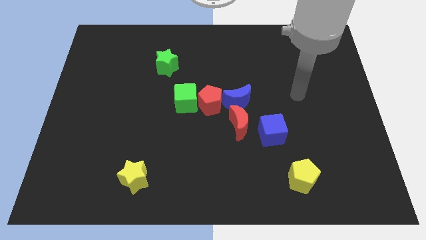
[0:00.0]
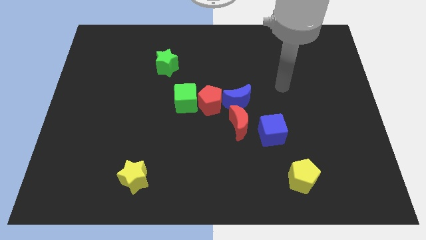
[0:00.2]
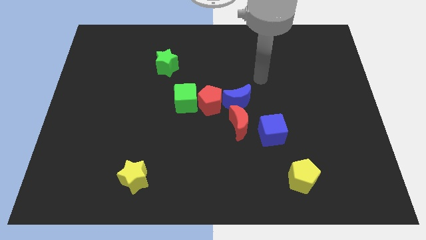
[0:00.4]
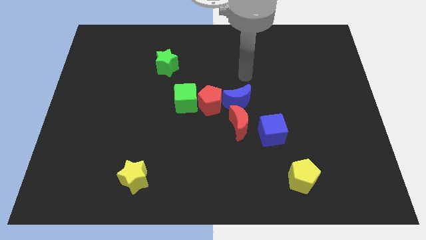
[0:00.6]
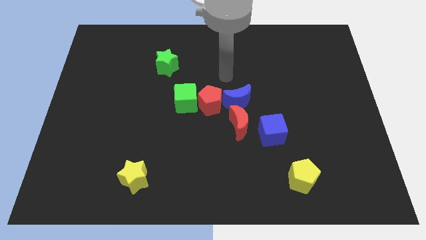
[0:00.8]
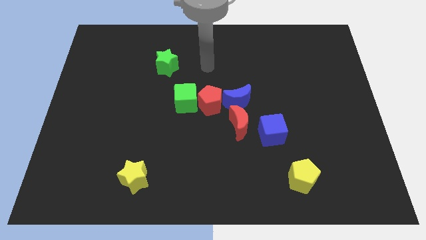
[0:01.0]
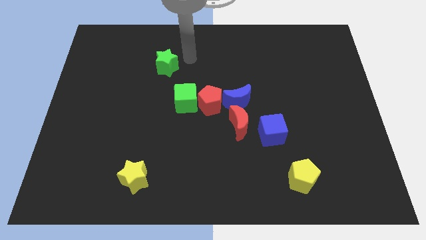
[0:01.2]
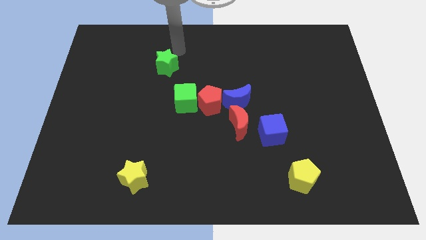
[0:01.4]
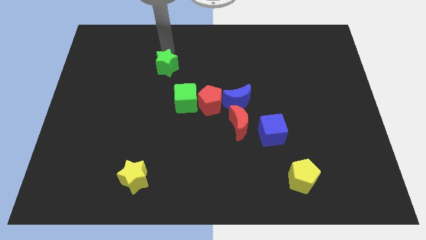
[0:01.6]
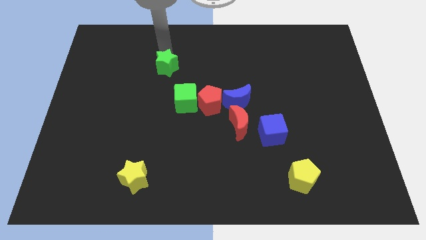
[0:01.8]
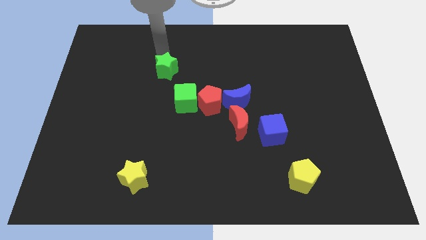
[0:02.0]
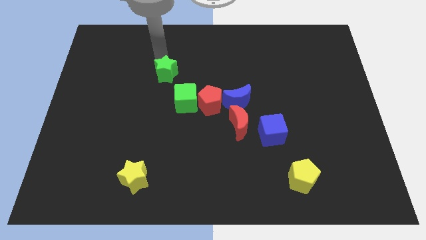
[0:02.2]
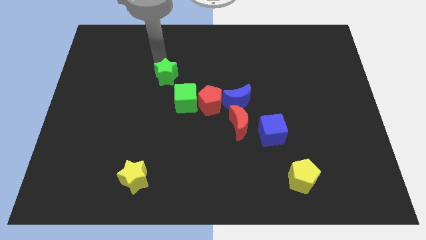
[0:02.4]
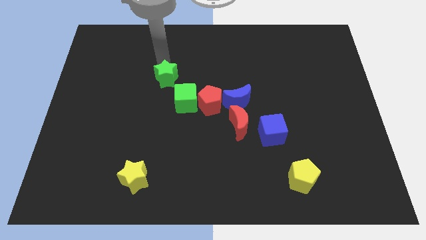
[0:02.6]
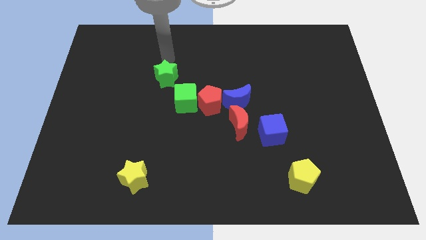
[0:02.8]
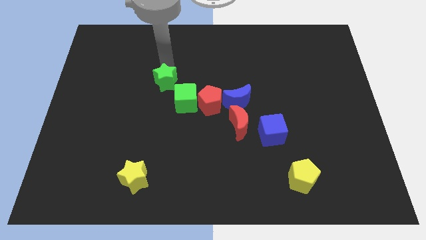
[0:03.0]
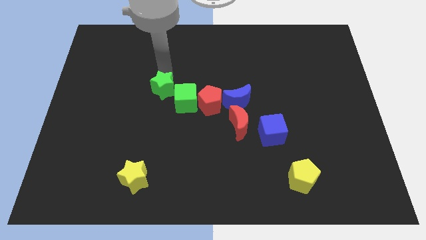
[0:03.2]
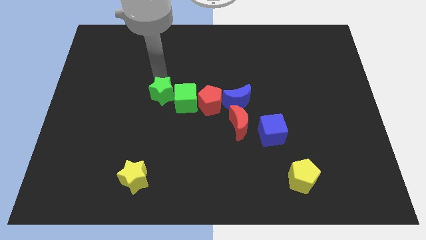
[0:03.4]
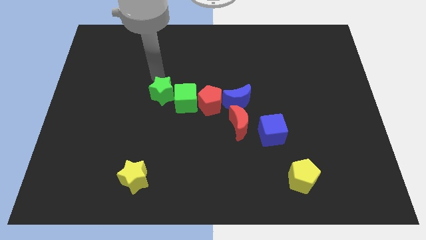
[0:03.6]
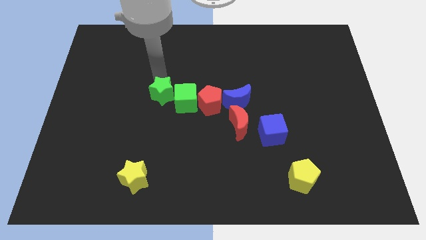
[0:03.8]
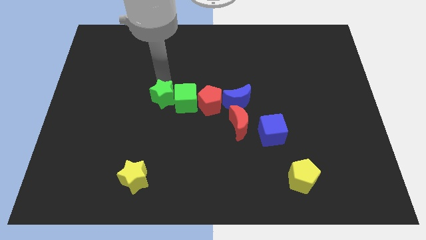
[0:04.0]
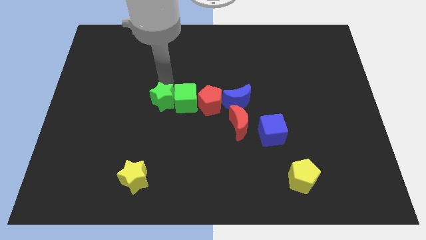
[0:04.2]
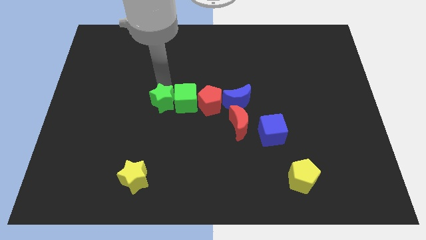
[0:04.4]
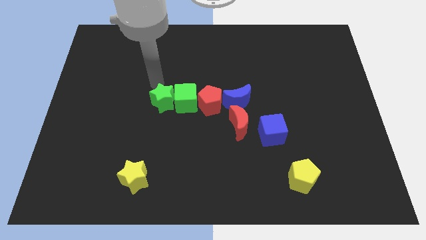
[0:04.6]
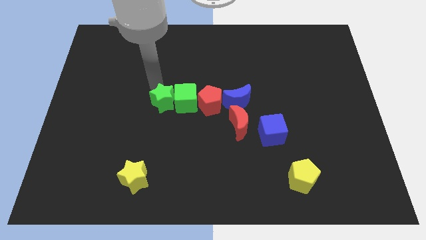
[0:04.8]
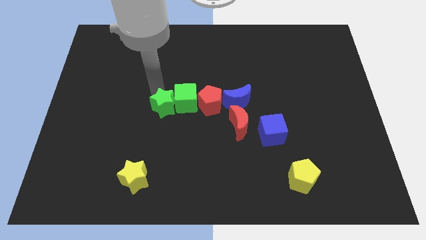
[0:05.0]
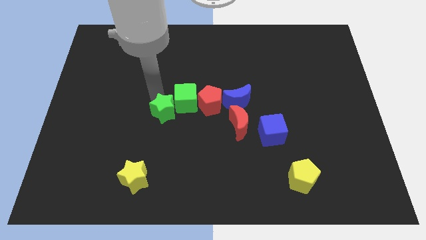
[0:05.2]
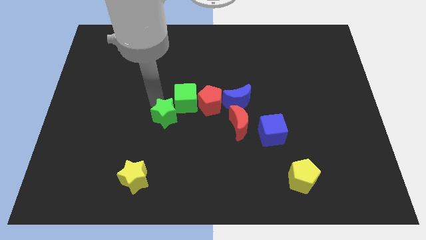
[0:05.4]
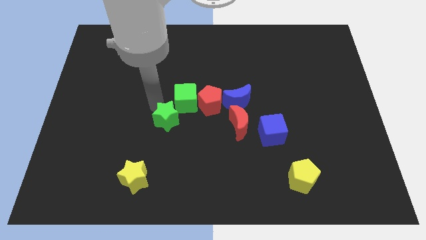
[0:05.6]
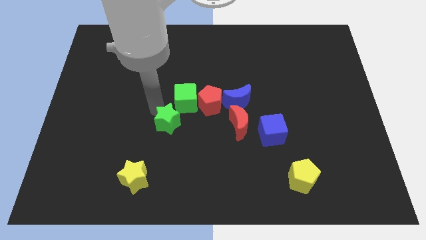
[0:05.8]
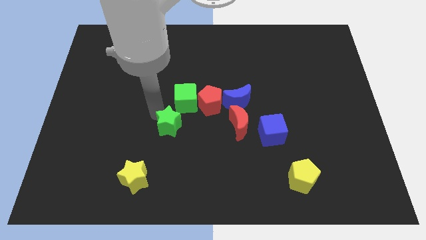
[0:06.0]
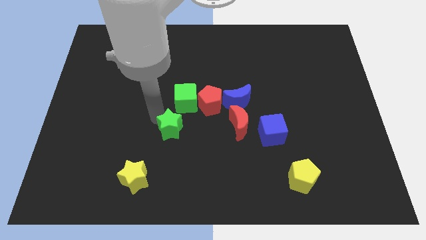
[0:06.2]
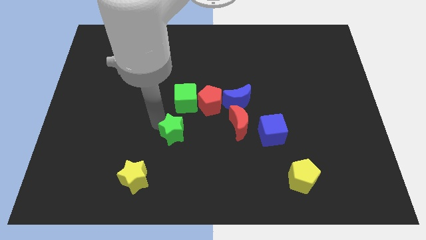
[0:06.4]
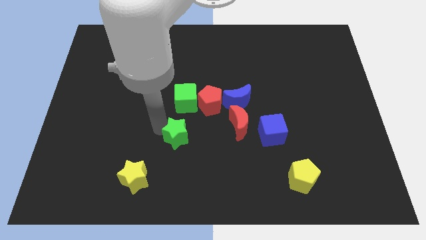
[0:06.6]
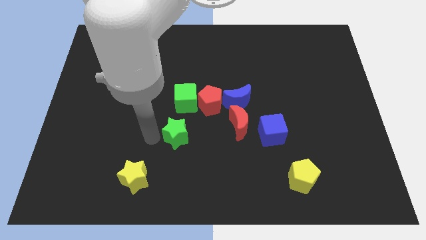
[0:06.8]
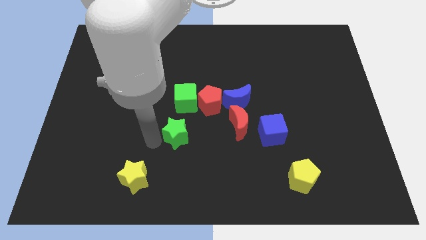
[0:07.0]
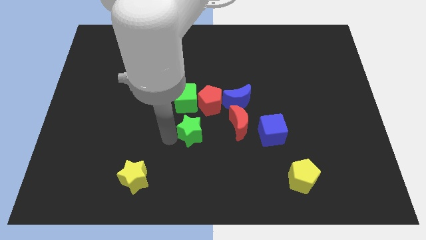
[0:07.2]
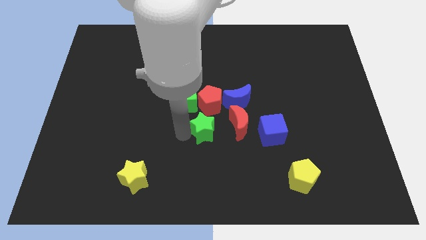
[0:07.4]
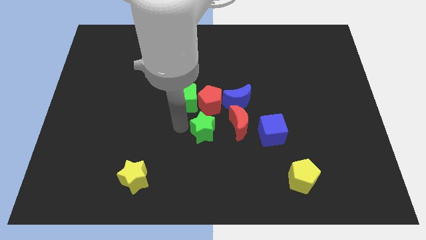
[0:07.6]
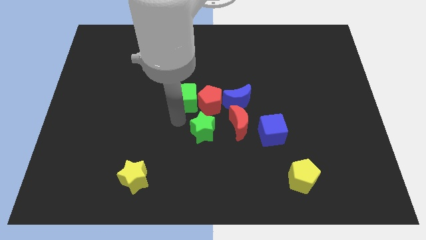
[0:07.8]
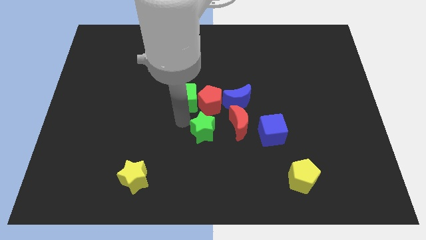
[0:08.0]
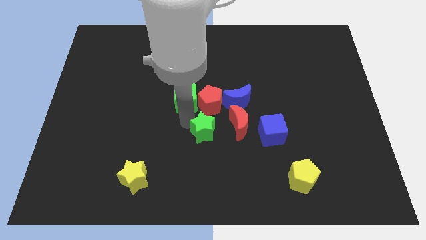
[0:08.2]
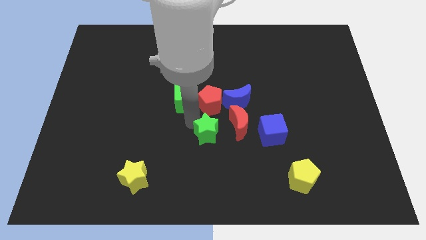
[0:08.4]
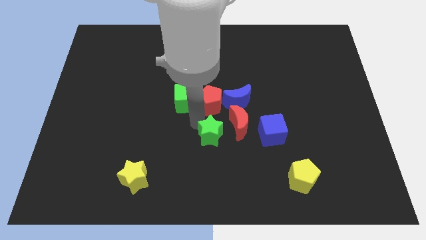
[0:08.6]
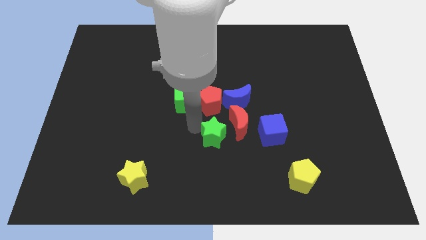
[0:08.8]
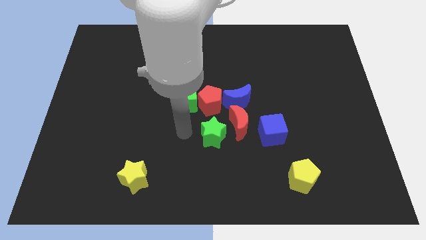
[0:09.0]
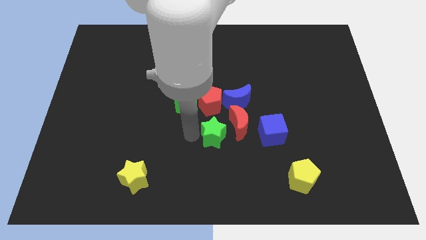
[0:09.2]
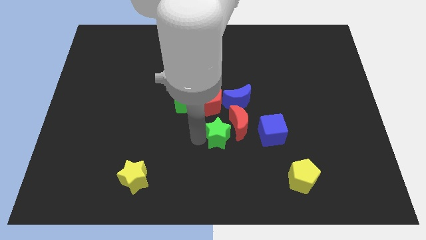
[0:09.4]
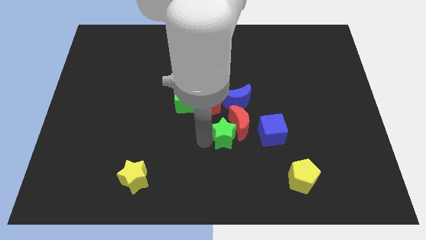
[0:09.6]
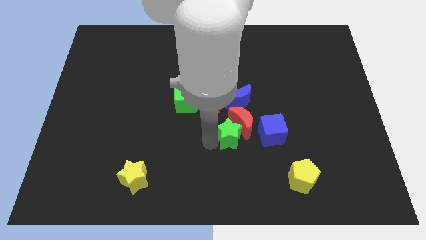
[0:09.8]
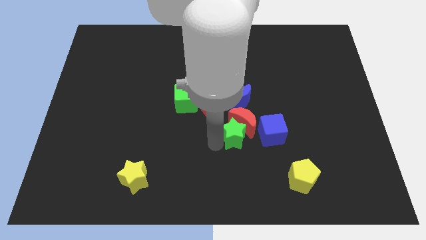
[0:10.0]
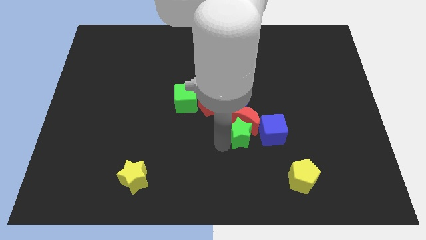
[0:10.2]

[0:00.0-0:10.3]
slide the green star to the bottom right of the red moon

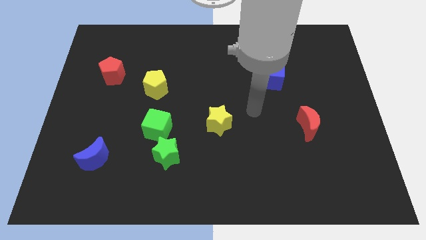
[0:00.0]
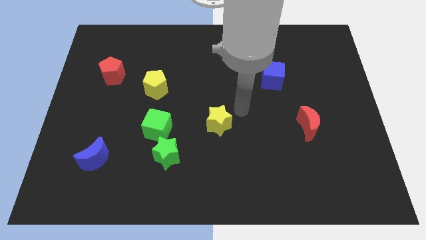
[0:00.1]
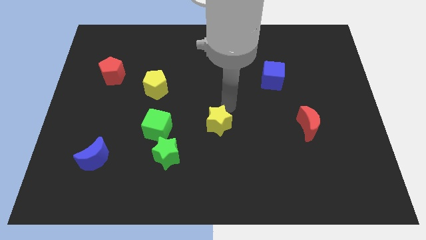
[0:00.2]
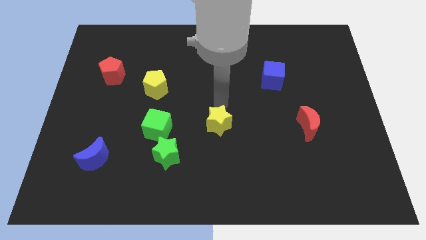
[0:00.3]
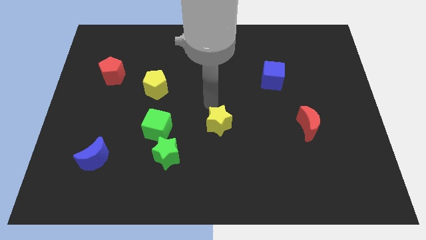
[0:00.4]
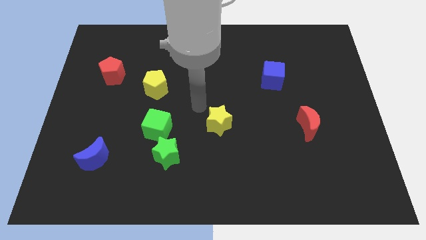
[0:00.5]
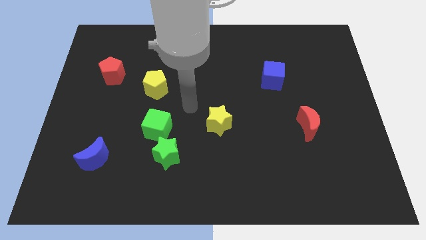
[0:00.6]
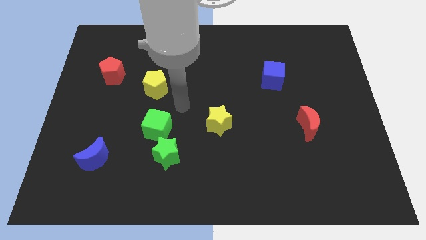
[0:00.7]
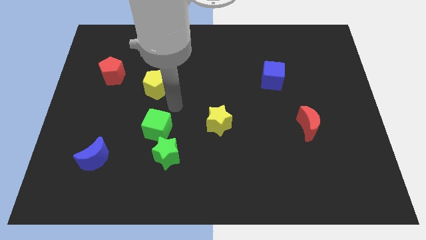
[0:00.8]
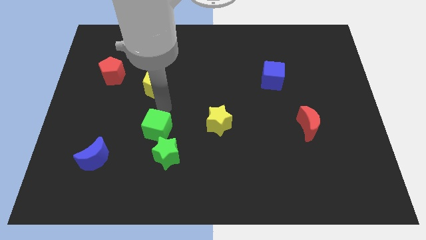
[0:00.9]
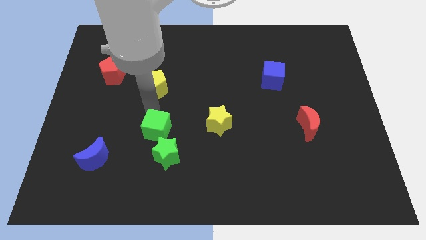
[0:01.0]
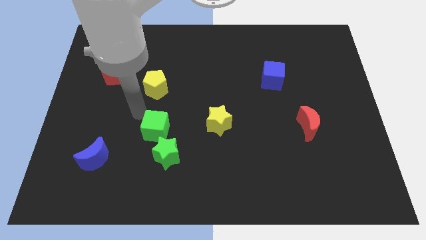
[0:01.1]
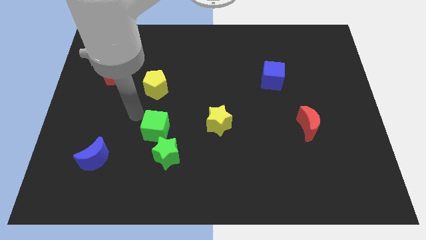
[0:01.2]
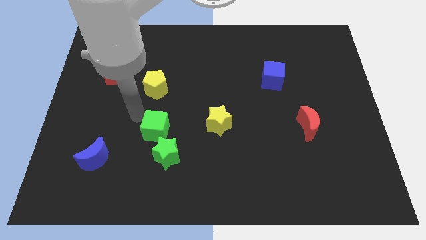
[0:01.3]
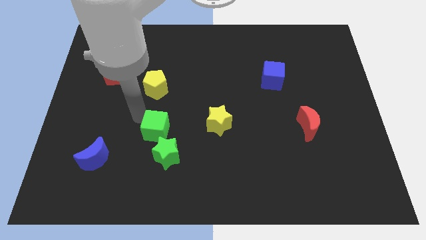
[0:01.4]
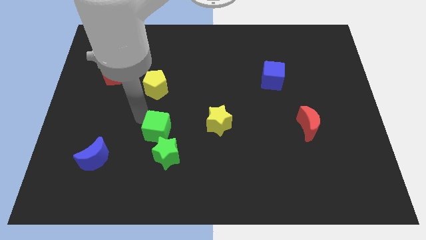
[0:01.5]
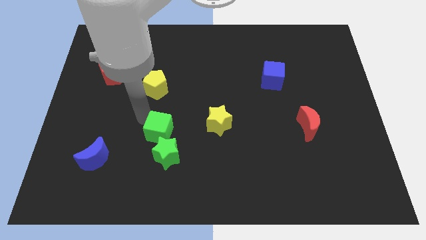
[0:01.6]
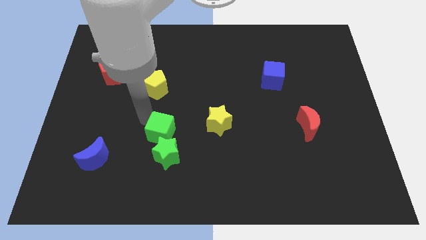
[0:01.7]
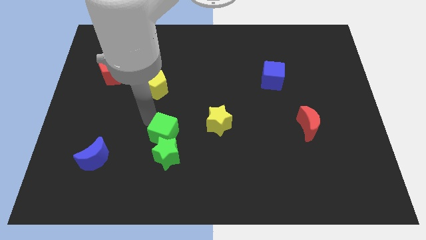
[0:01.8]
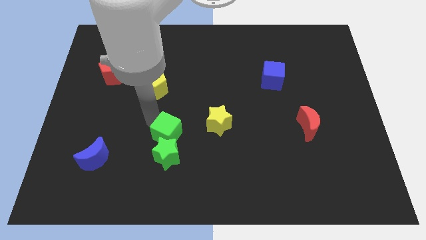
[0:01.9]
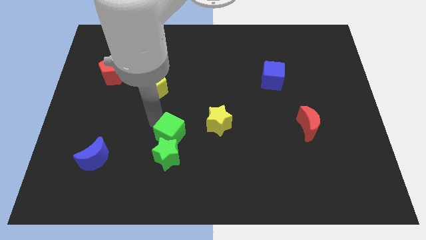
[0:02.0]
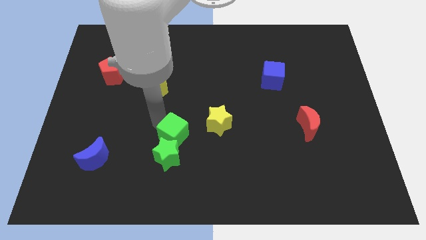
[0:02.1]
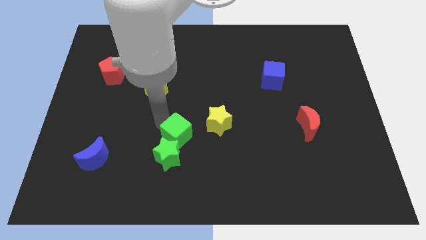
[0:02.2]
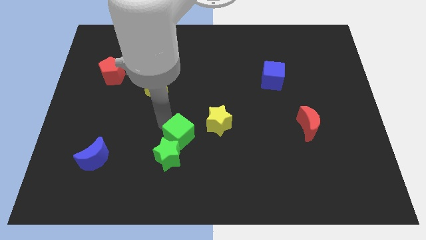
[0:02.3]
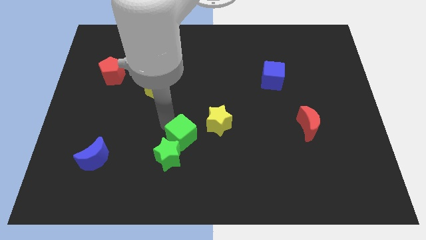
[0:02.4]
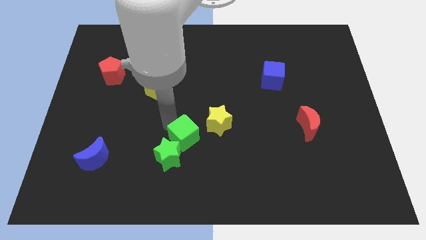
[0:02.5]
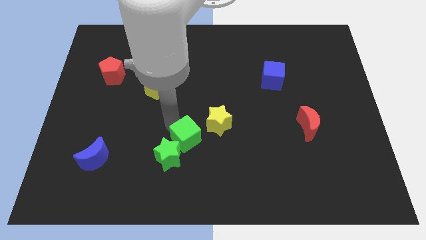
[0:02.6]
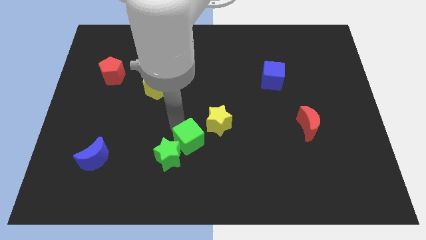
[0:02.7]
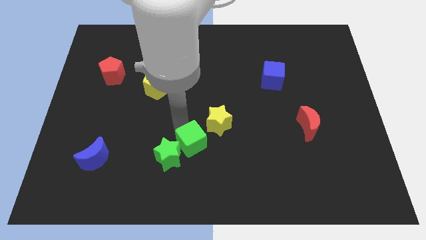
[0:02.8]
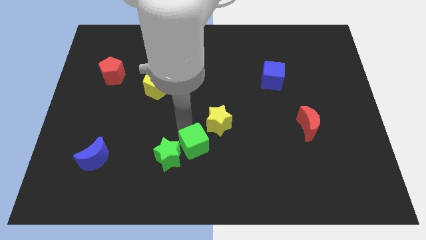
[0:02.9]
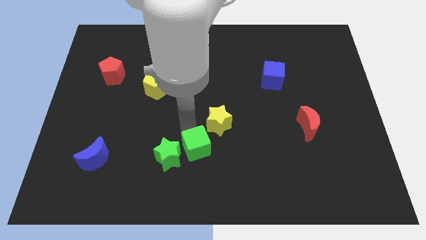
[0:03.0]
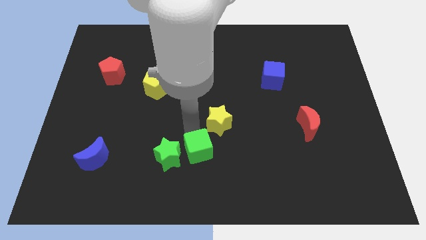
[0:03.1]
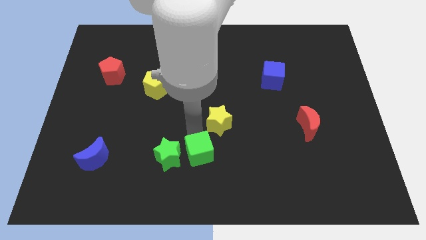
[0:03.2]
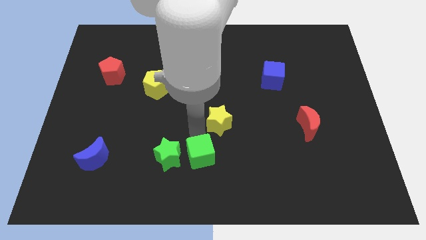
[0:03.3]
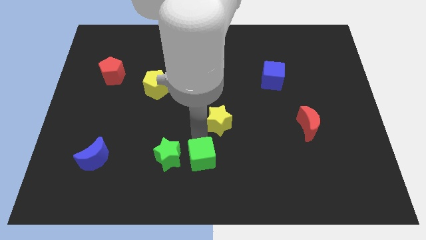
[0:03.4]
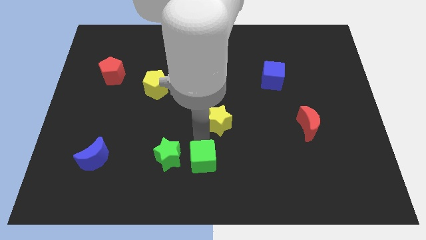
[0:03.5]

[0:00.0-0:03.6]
slide the green cube diagonally down and to the right of the green star
